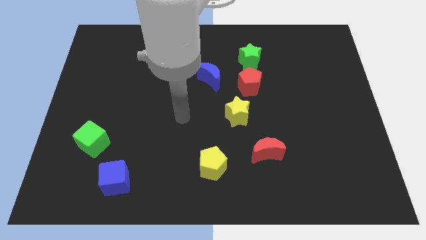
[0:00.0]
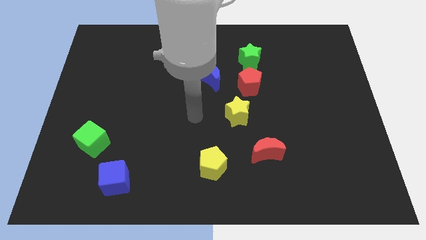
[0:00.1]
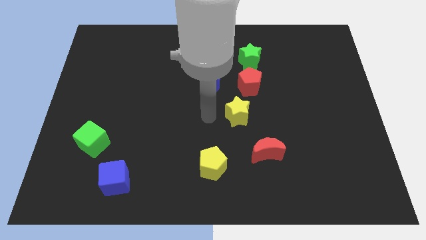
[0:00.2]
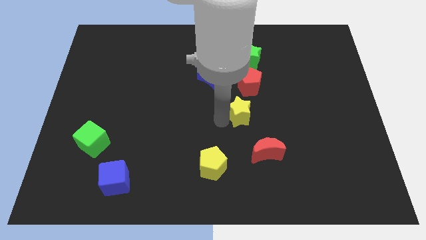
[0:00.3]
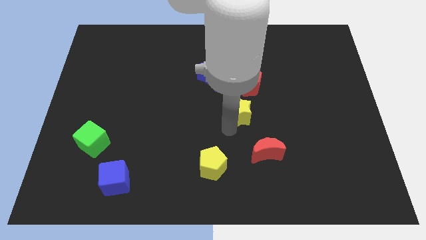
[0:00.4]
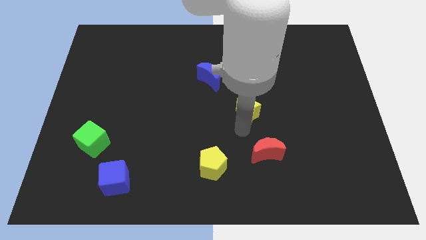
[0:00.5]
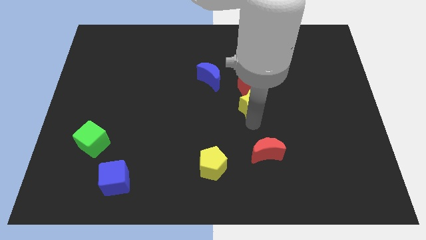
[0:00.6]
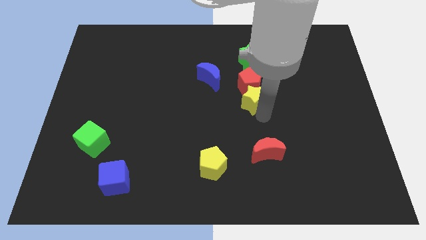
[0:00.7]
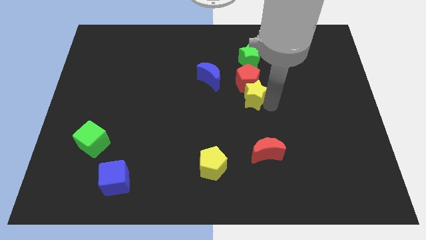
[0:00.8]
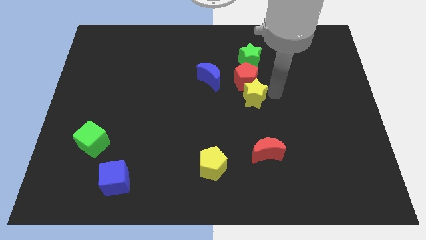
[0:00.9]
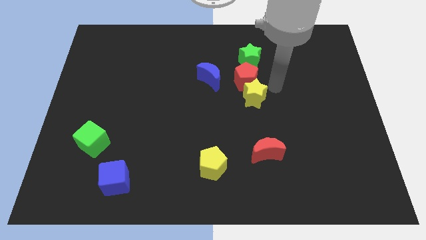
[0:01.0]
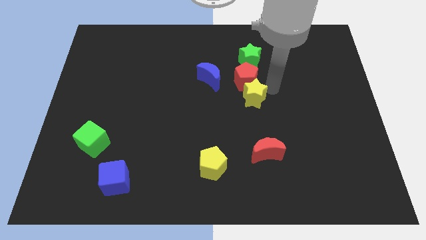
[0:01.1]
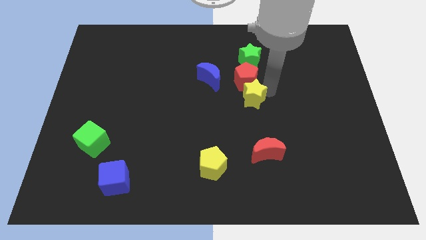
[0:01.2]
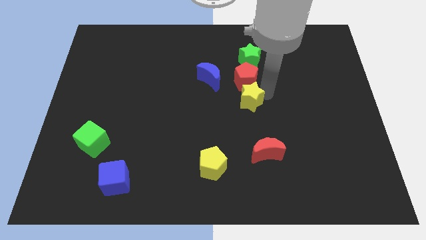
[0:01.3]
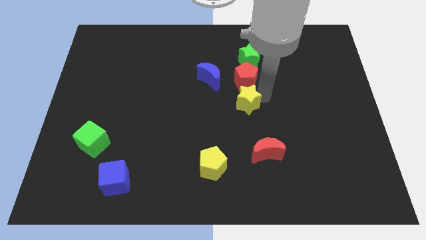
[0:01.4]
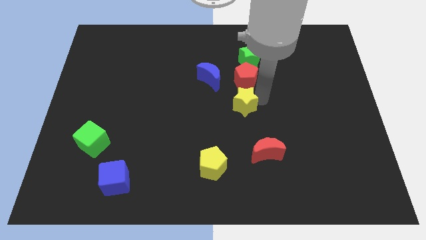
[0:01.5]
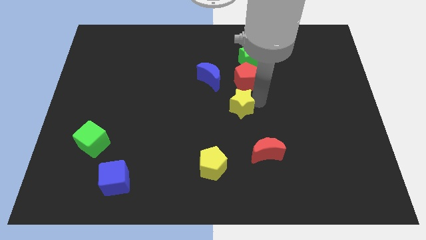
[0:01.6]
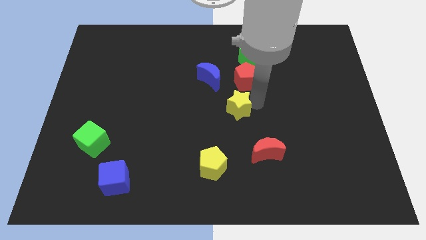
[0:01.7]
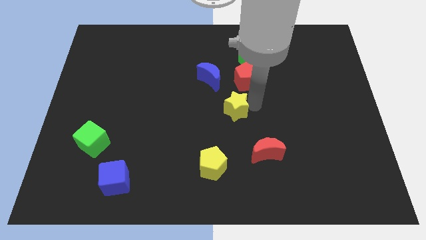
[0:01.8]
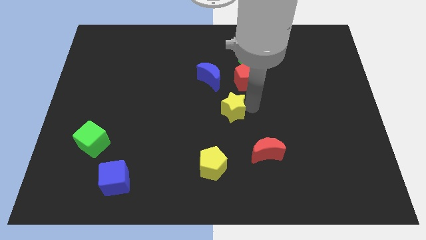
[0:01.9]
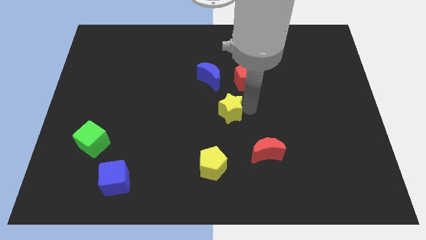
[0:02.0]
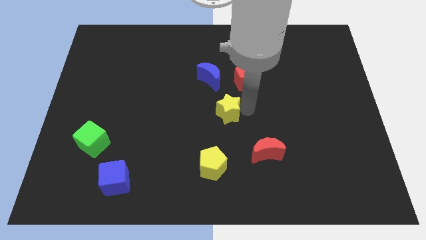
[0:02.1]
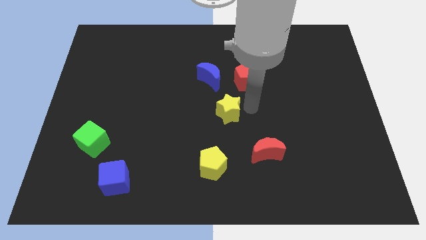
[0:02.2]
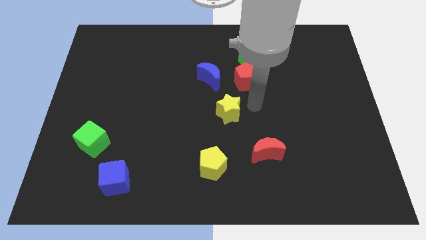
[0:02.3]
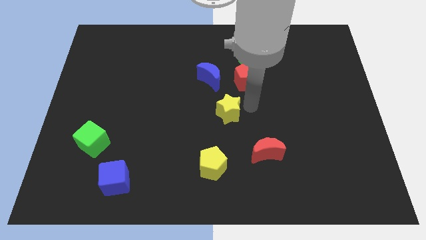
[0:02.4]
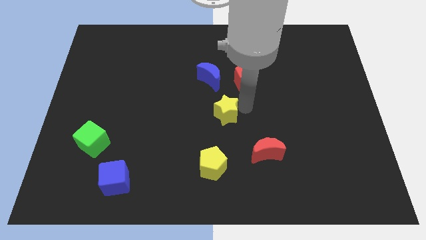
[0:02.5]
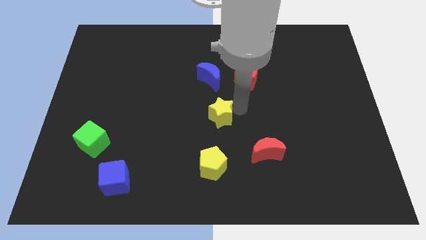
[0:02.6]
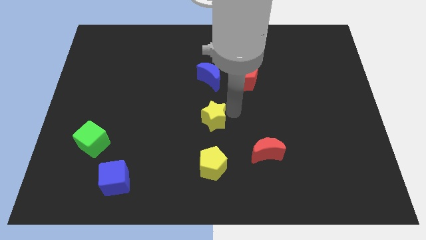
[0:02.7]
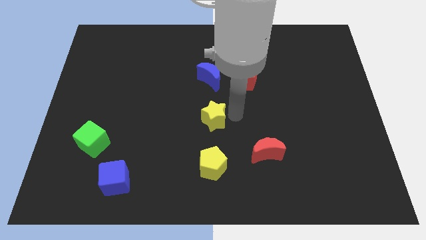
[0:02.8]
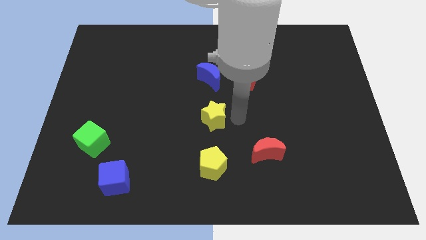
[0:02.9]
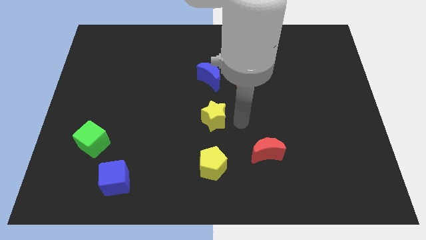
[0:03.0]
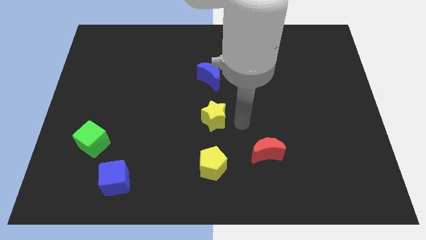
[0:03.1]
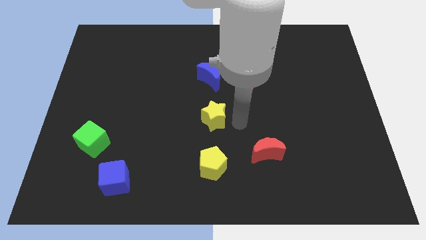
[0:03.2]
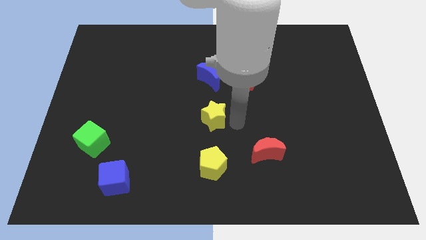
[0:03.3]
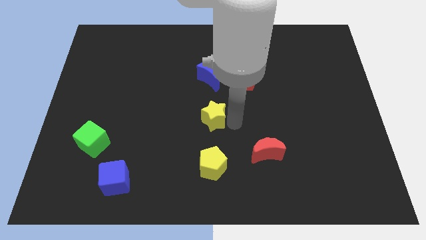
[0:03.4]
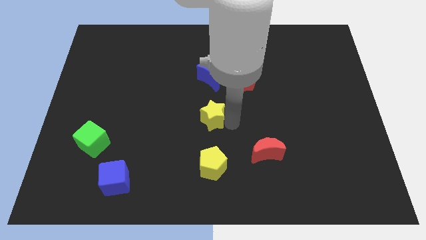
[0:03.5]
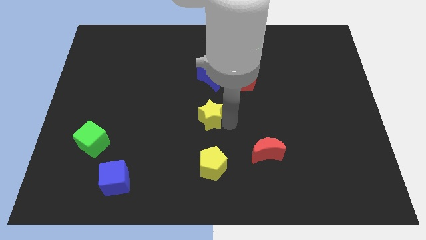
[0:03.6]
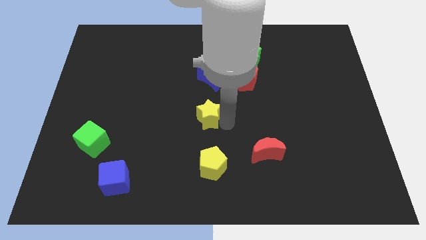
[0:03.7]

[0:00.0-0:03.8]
slide the yellow star left slightly

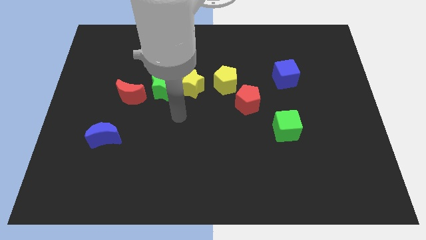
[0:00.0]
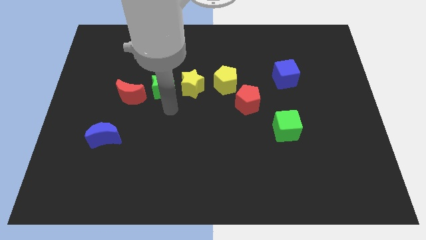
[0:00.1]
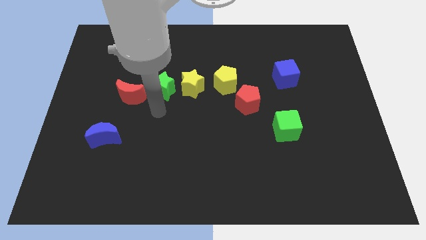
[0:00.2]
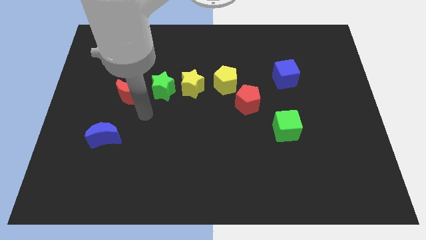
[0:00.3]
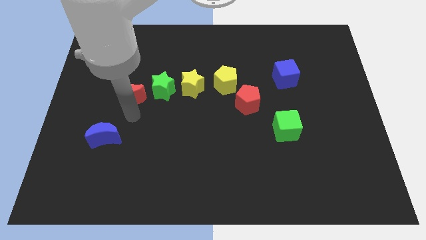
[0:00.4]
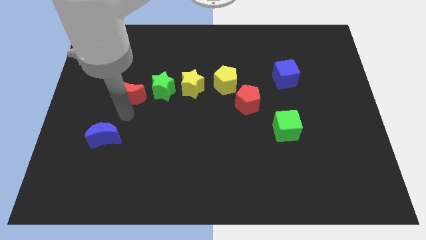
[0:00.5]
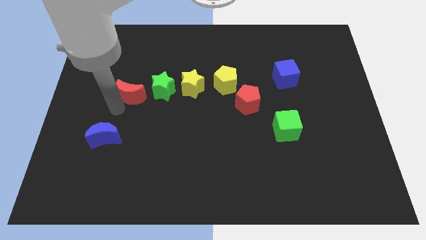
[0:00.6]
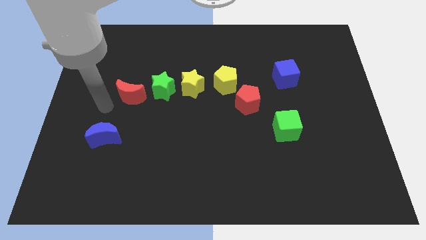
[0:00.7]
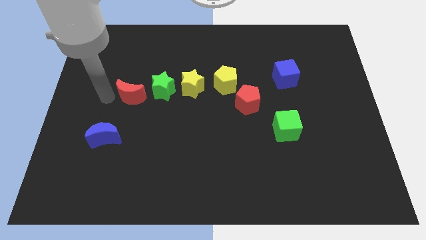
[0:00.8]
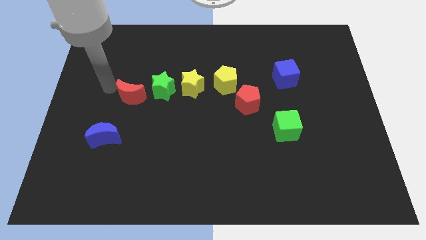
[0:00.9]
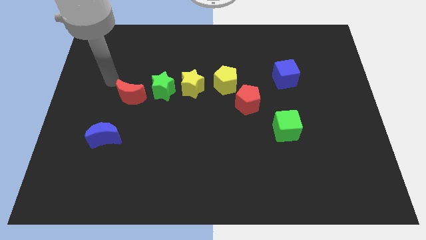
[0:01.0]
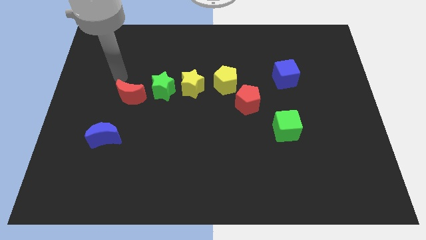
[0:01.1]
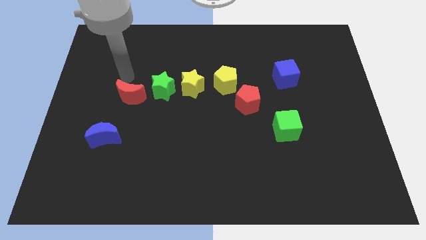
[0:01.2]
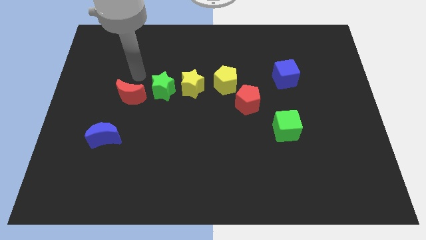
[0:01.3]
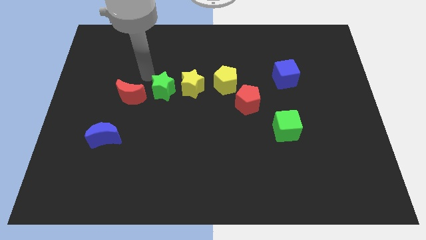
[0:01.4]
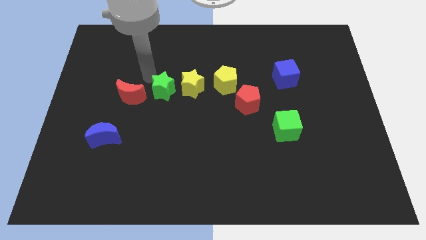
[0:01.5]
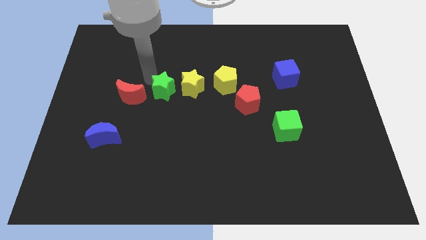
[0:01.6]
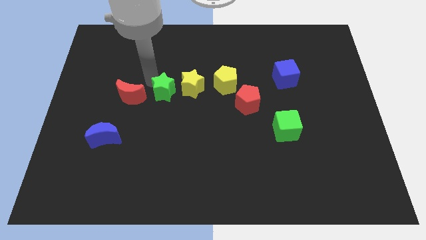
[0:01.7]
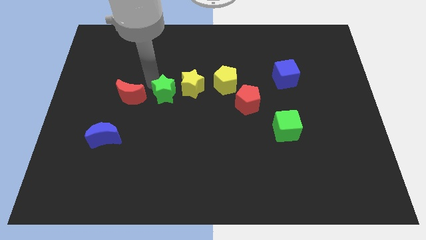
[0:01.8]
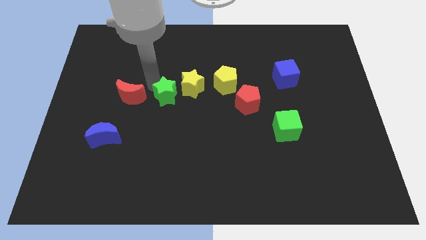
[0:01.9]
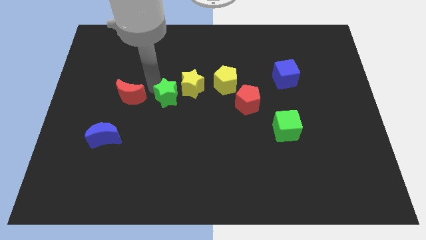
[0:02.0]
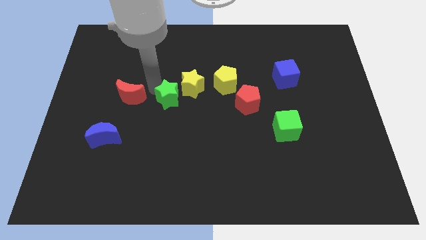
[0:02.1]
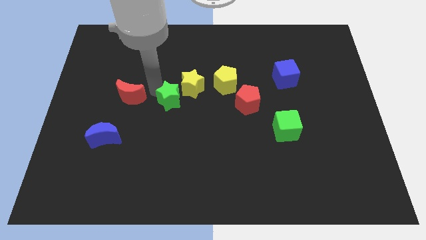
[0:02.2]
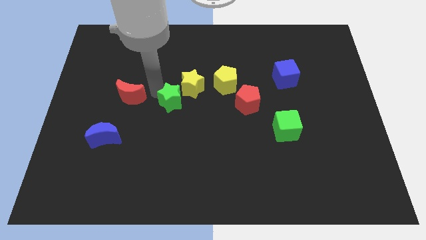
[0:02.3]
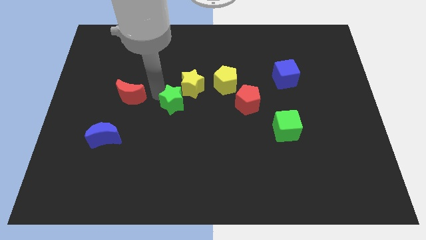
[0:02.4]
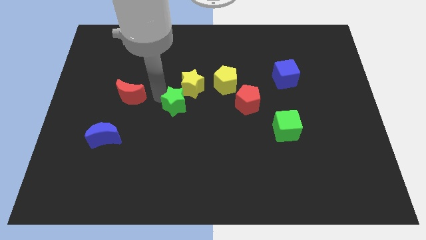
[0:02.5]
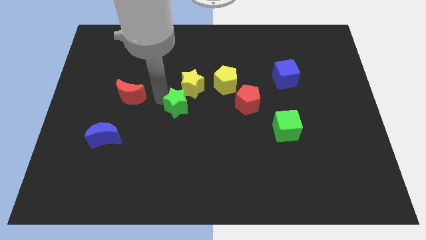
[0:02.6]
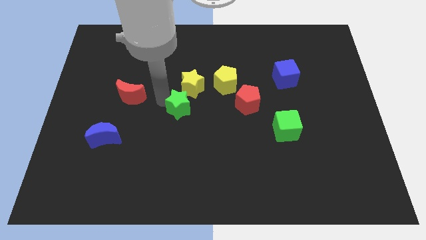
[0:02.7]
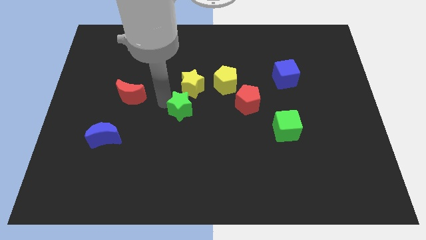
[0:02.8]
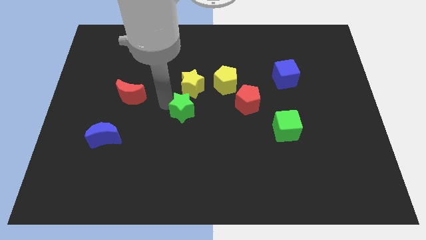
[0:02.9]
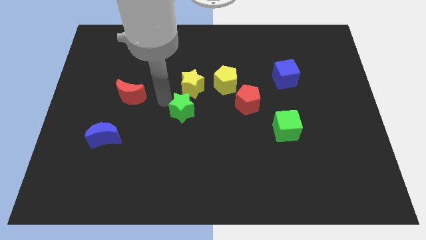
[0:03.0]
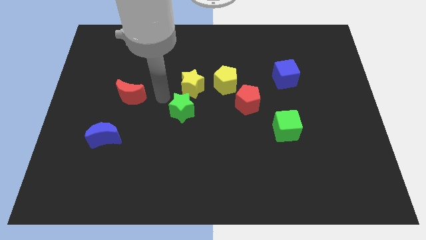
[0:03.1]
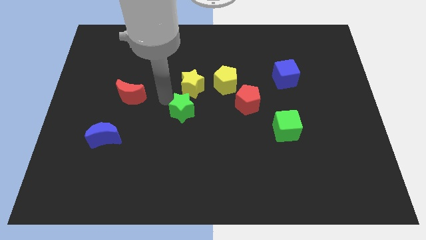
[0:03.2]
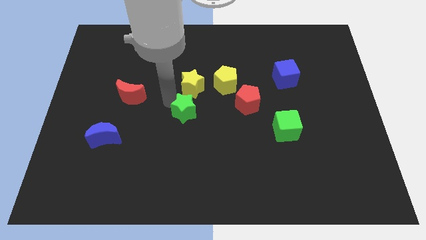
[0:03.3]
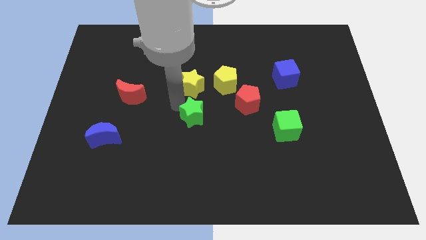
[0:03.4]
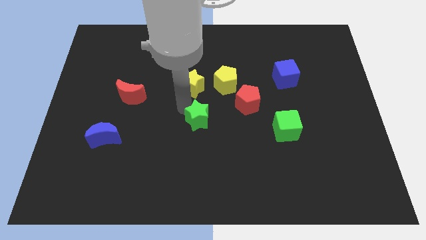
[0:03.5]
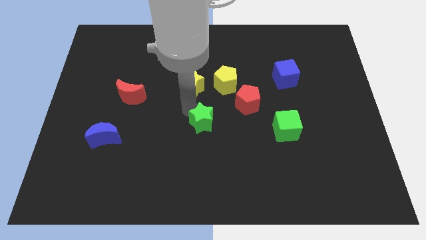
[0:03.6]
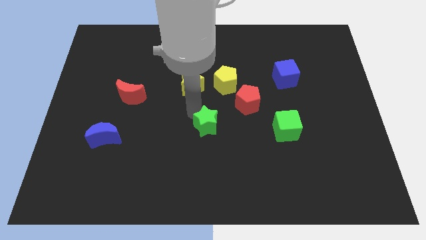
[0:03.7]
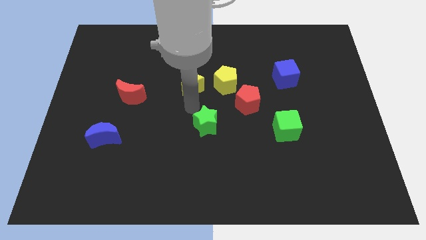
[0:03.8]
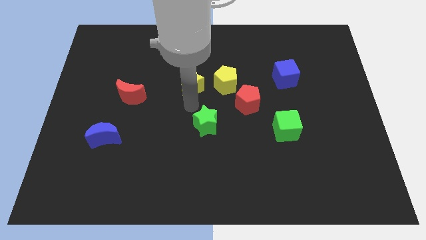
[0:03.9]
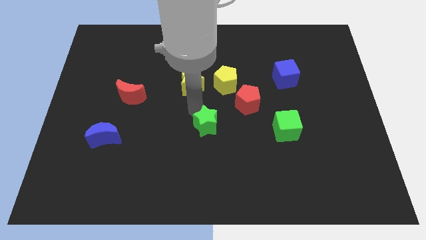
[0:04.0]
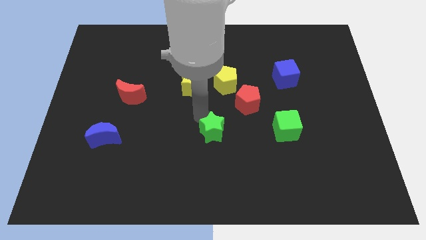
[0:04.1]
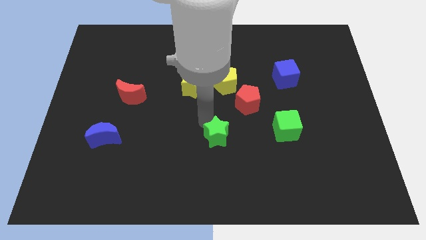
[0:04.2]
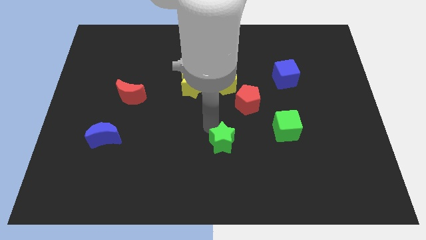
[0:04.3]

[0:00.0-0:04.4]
move the green star diagonally down and right

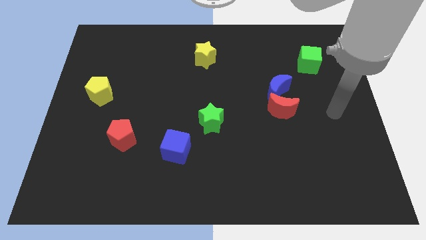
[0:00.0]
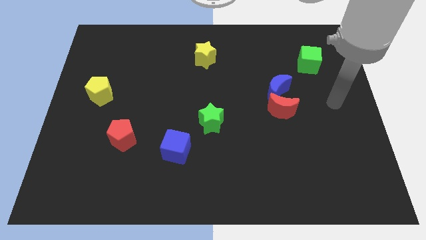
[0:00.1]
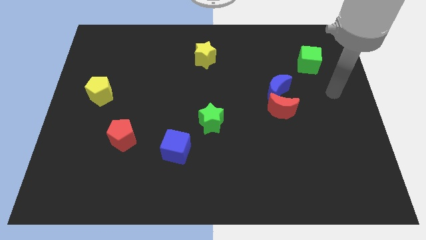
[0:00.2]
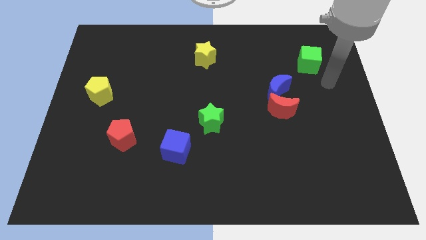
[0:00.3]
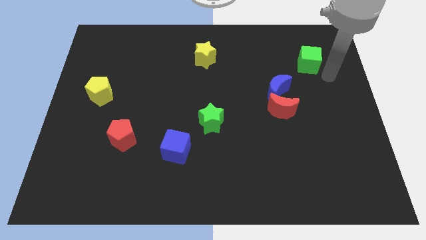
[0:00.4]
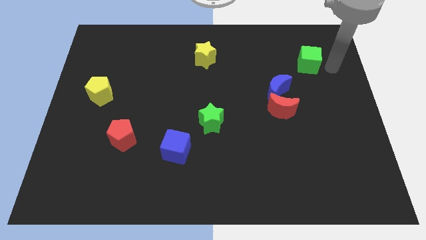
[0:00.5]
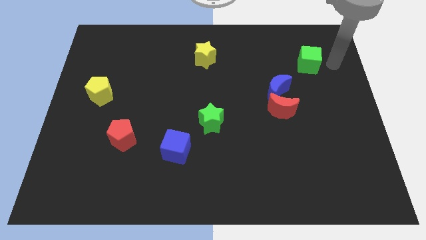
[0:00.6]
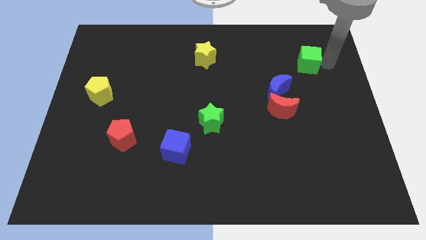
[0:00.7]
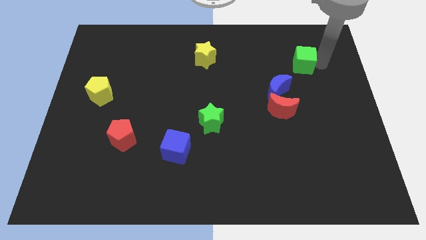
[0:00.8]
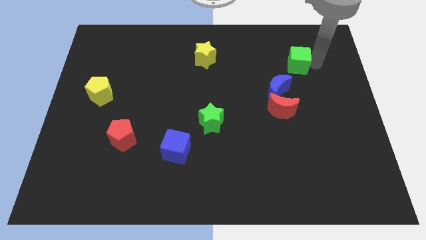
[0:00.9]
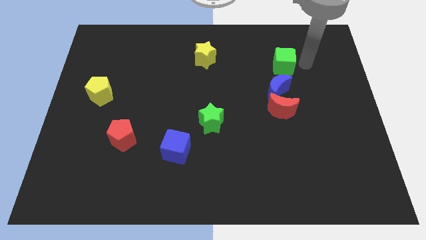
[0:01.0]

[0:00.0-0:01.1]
slightly move the green cube left
